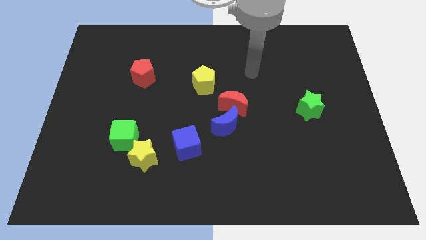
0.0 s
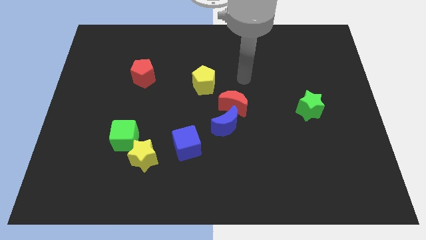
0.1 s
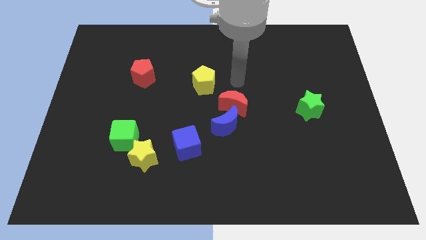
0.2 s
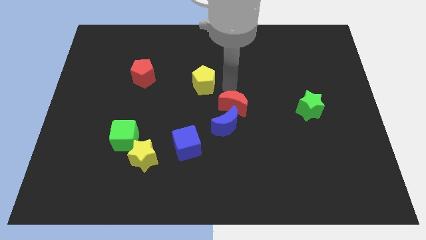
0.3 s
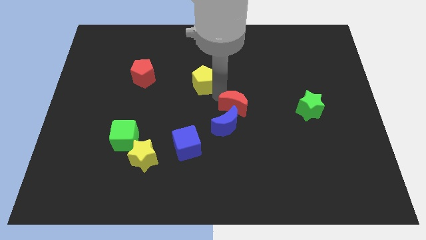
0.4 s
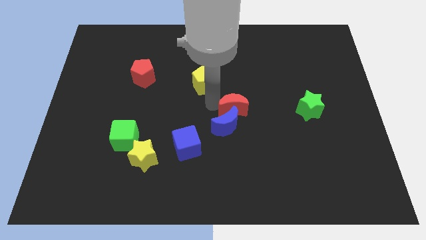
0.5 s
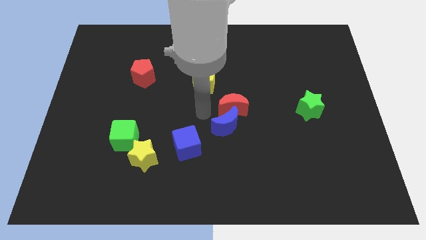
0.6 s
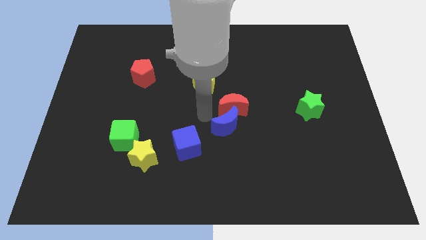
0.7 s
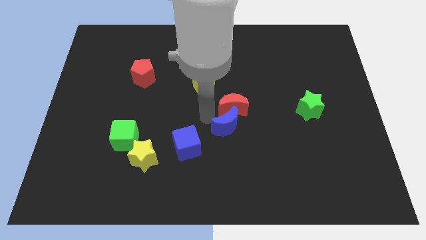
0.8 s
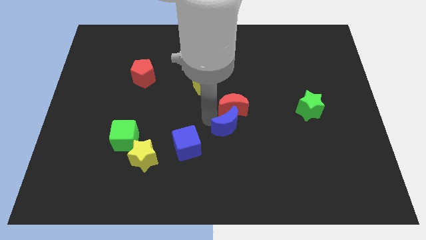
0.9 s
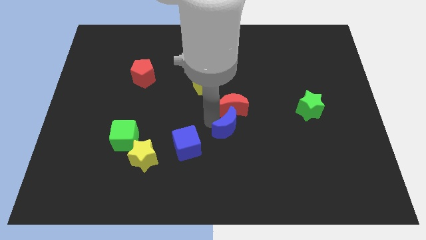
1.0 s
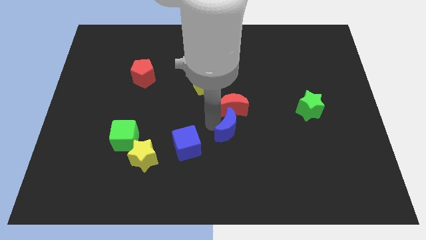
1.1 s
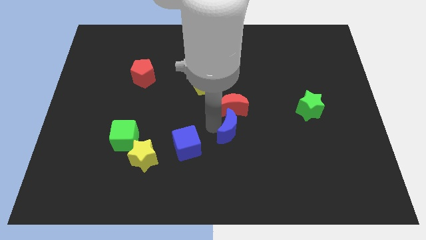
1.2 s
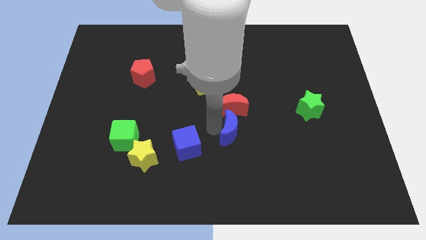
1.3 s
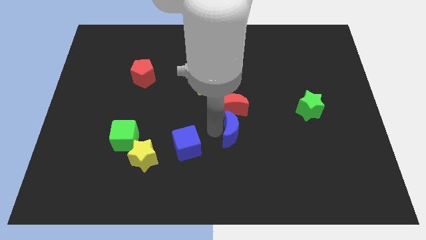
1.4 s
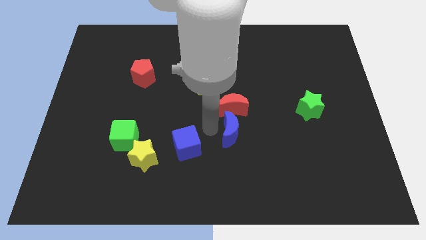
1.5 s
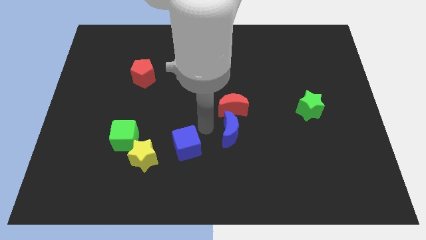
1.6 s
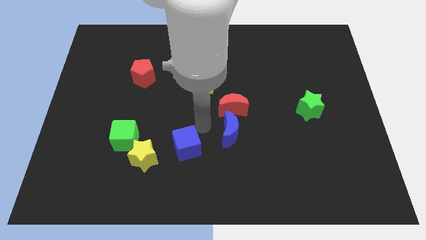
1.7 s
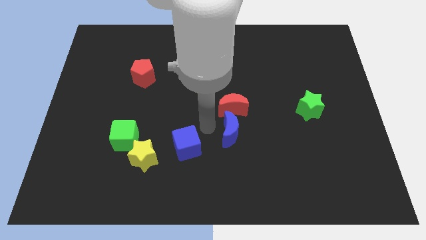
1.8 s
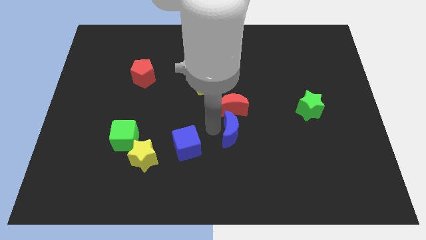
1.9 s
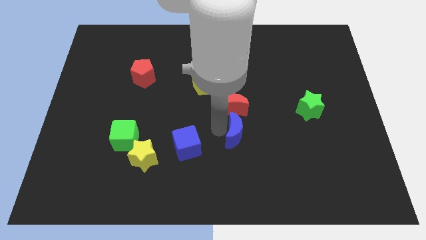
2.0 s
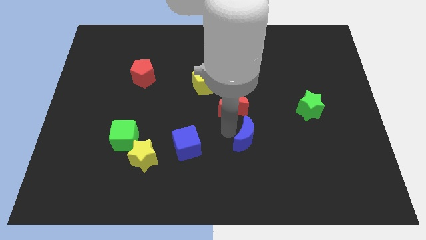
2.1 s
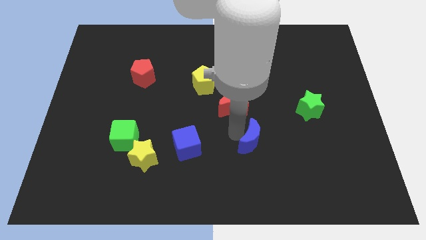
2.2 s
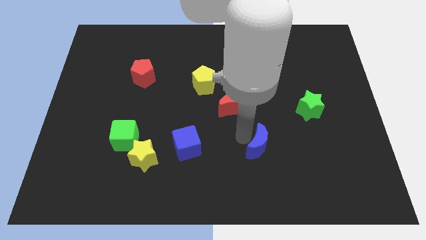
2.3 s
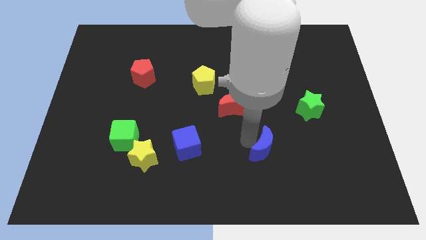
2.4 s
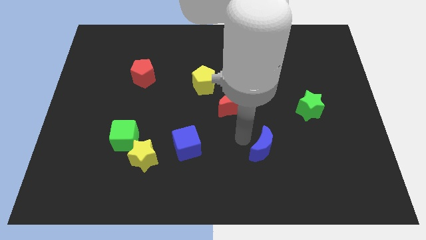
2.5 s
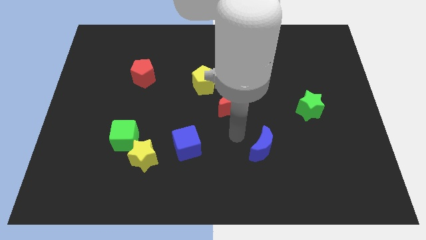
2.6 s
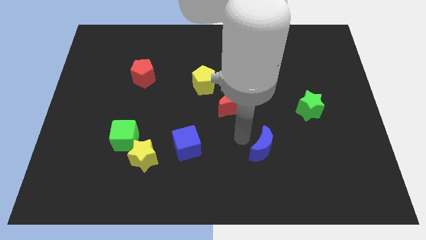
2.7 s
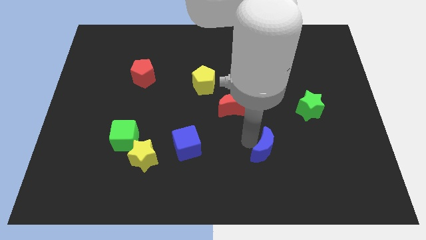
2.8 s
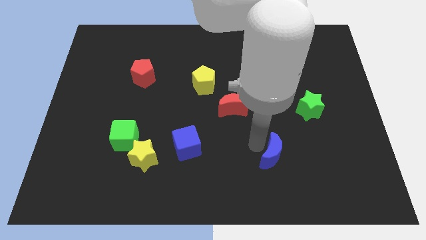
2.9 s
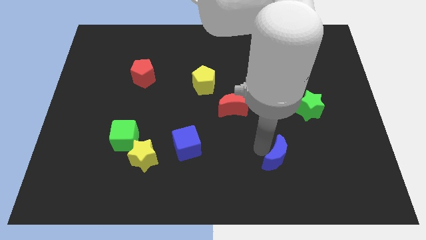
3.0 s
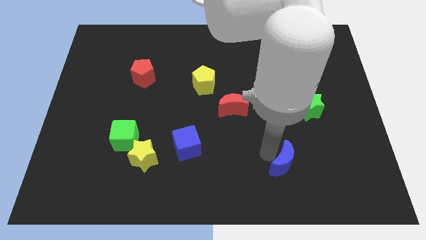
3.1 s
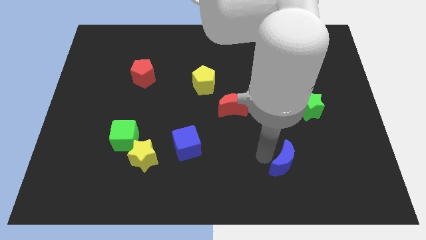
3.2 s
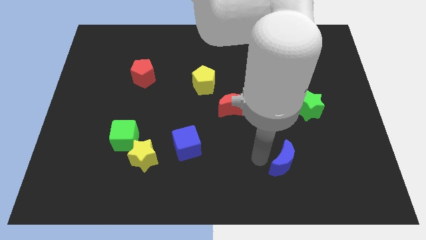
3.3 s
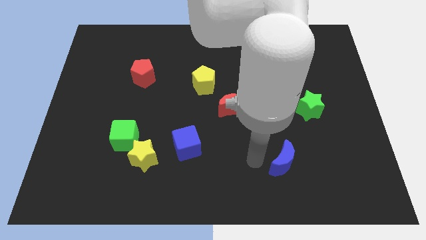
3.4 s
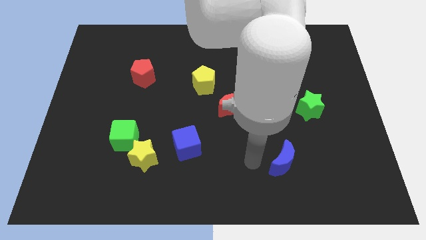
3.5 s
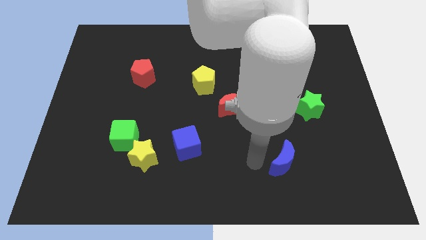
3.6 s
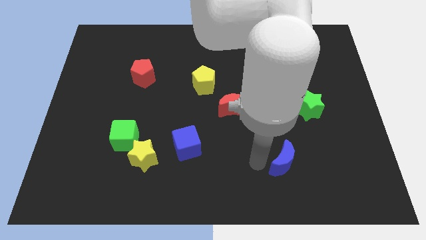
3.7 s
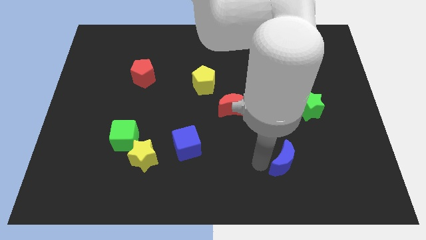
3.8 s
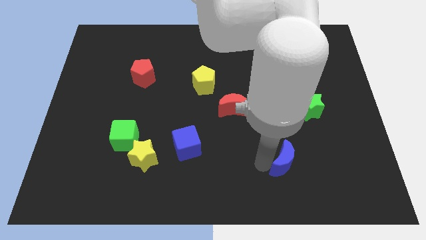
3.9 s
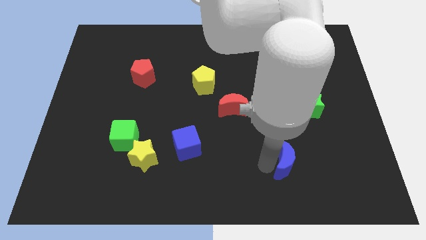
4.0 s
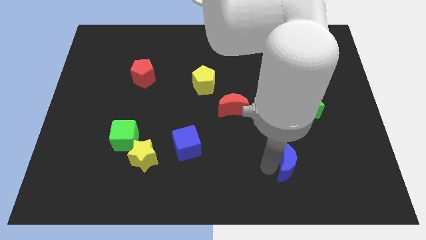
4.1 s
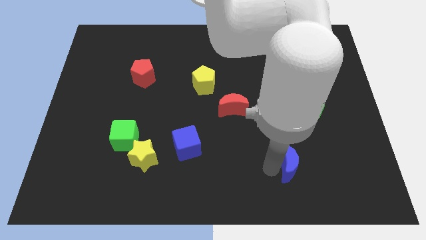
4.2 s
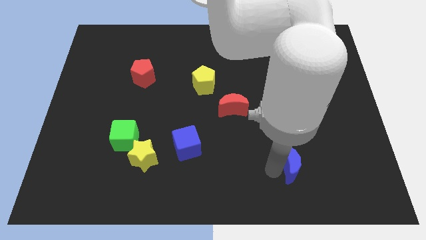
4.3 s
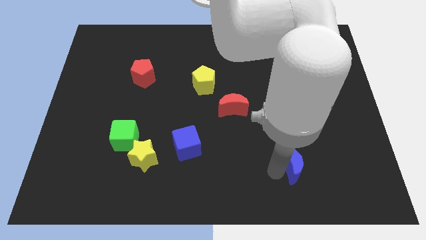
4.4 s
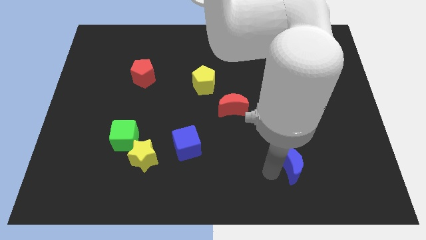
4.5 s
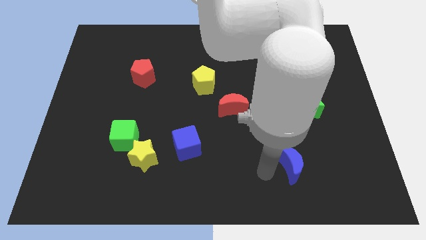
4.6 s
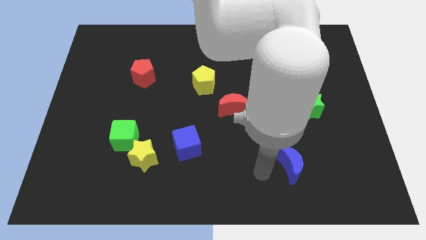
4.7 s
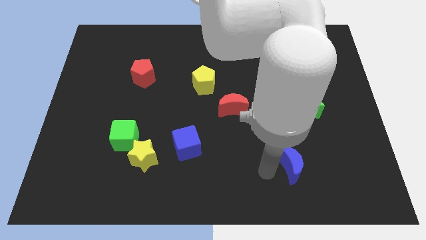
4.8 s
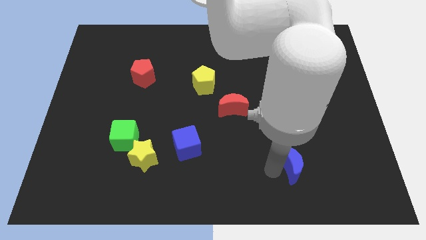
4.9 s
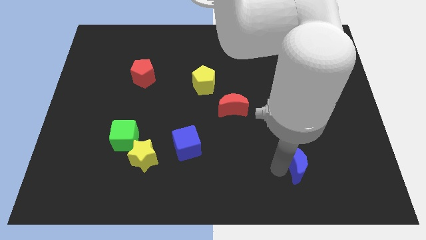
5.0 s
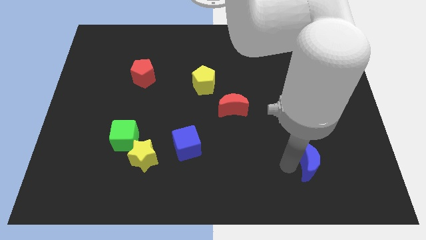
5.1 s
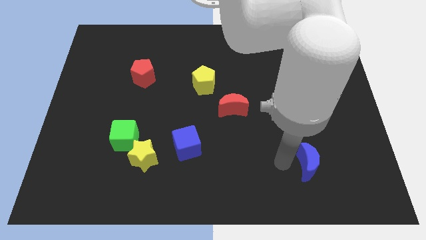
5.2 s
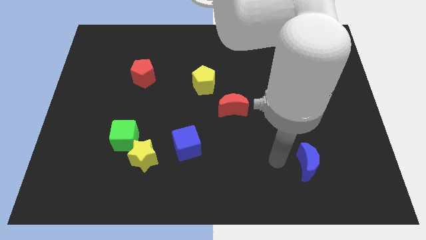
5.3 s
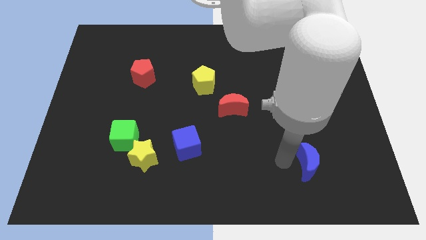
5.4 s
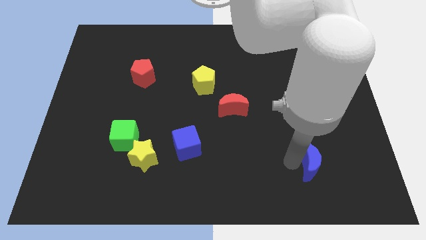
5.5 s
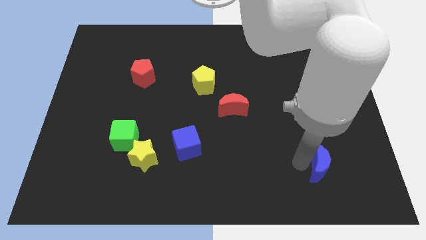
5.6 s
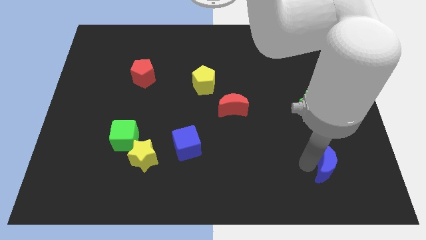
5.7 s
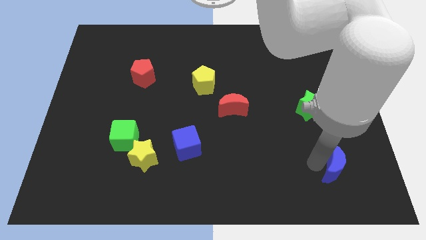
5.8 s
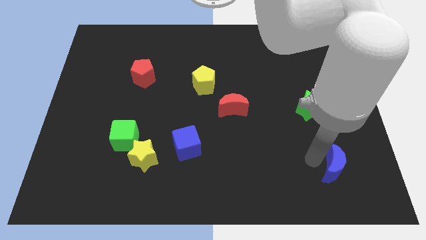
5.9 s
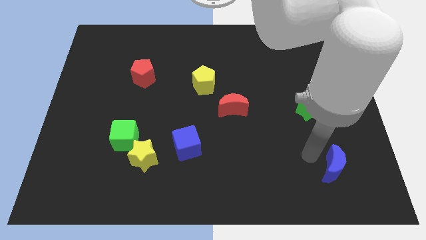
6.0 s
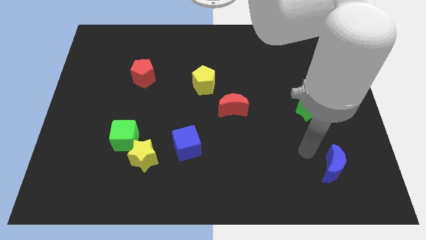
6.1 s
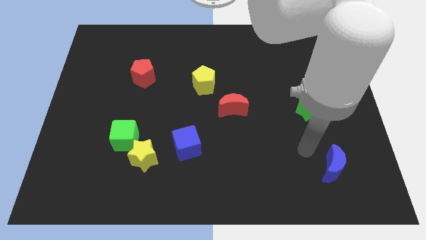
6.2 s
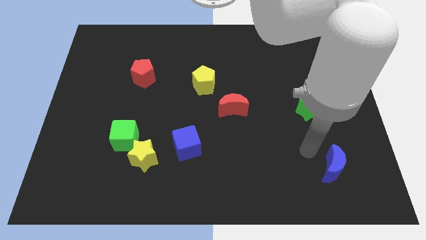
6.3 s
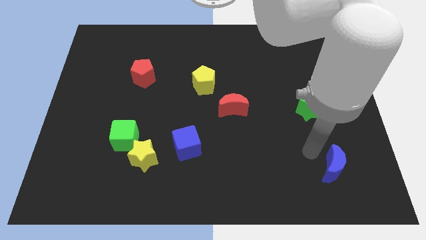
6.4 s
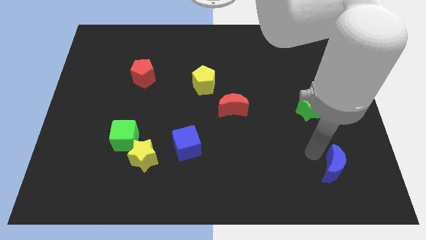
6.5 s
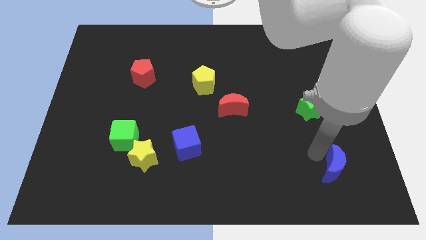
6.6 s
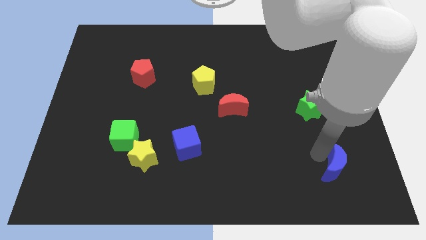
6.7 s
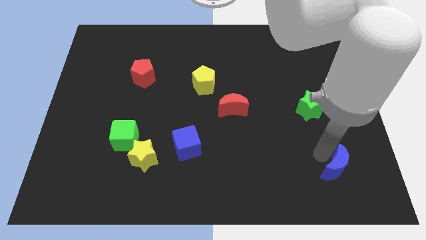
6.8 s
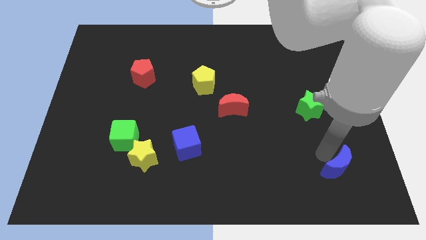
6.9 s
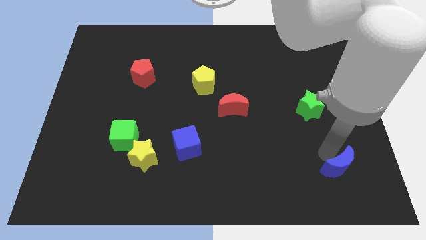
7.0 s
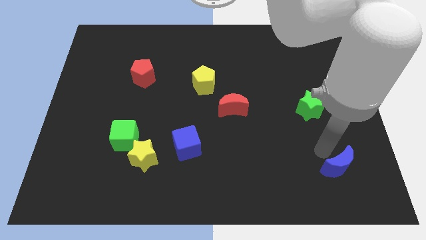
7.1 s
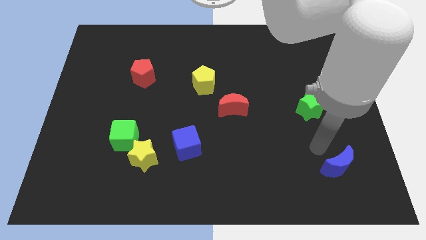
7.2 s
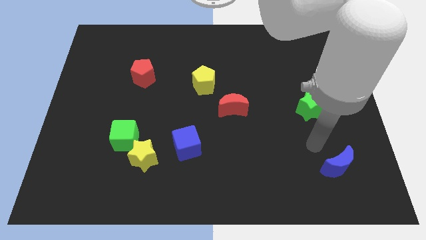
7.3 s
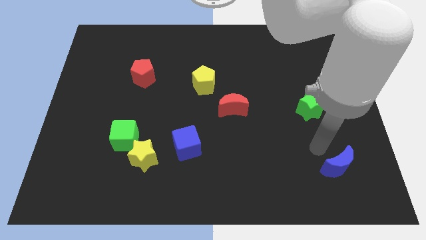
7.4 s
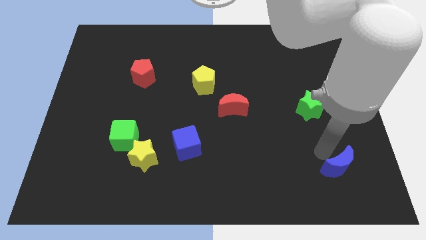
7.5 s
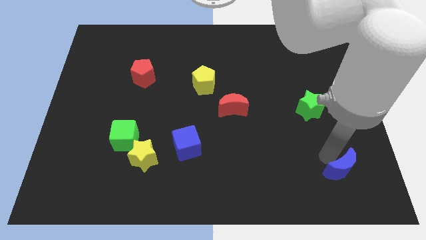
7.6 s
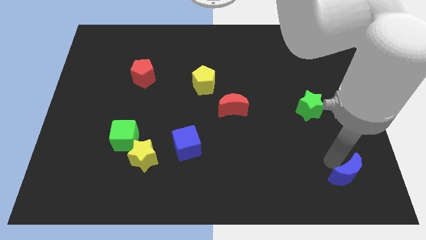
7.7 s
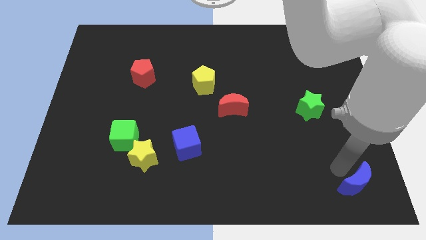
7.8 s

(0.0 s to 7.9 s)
put the blue moon to the bottom right
